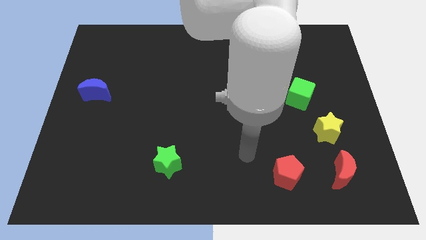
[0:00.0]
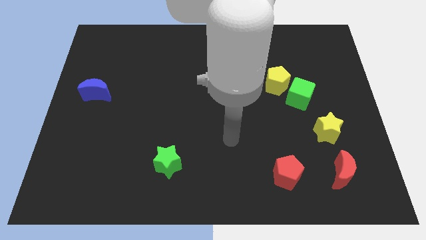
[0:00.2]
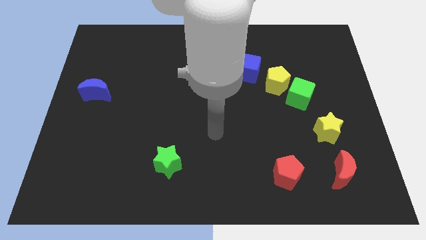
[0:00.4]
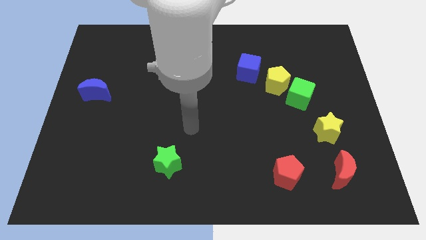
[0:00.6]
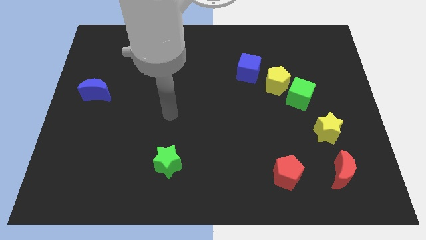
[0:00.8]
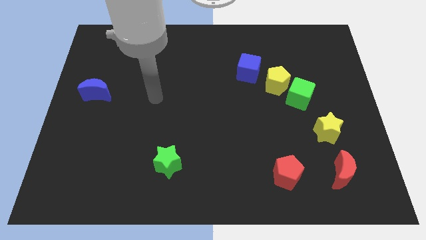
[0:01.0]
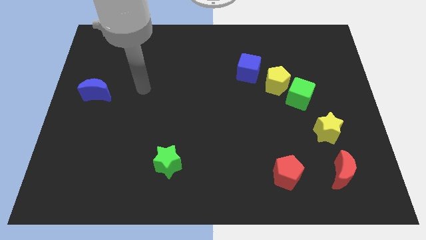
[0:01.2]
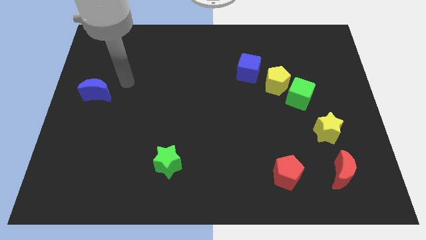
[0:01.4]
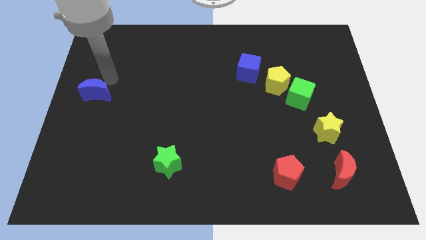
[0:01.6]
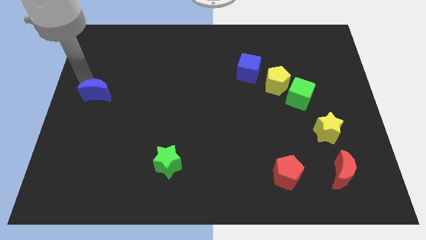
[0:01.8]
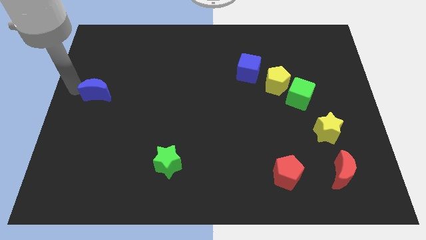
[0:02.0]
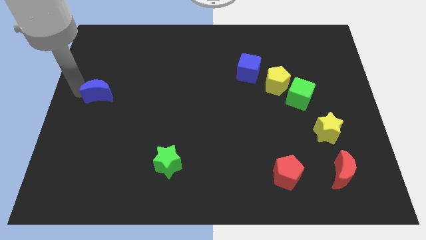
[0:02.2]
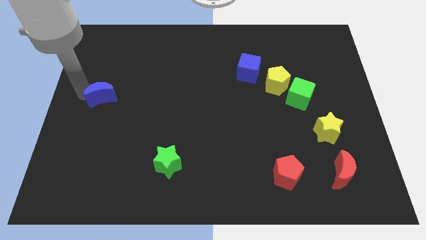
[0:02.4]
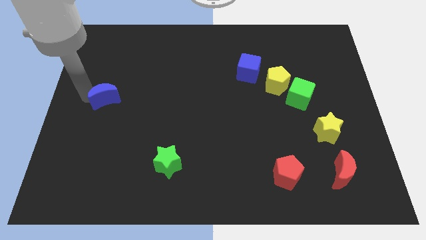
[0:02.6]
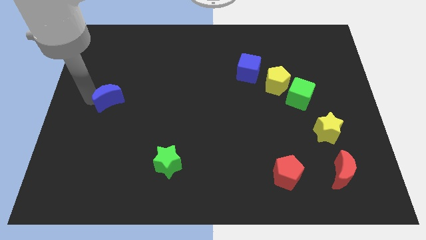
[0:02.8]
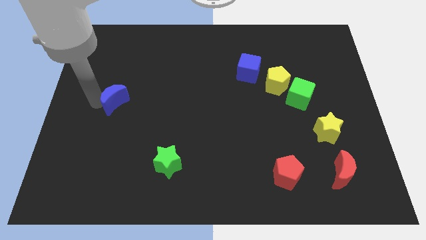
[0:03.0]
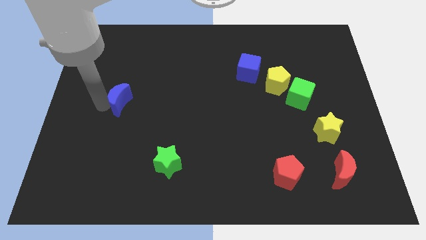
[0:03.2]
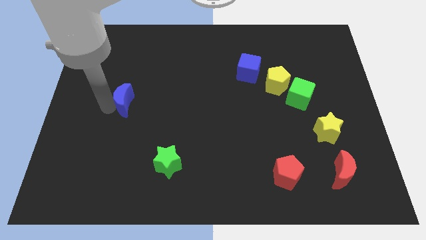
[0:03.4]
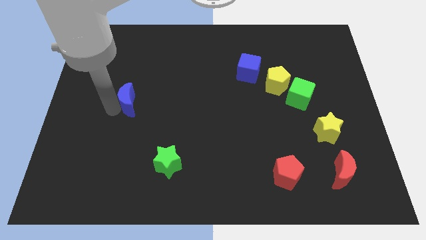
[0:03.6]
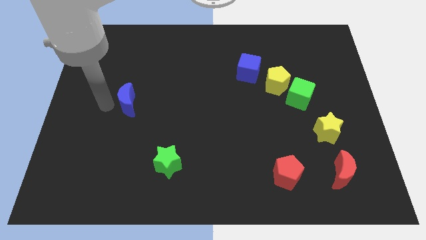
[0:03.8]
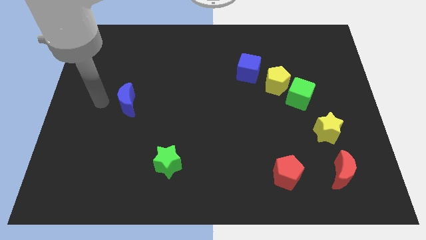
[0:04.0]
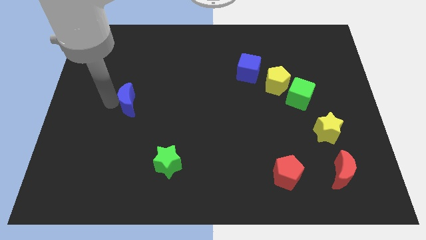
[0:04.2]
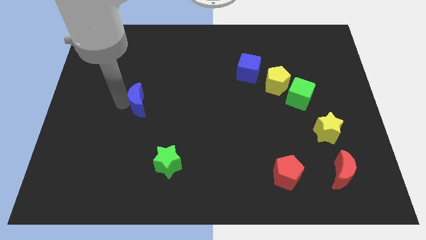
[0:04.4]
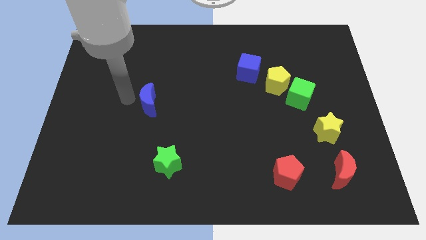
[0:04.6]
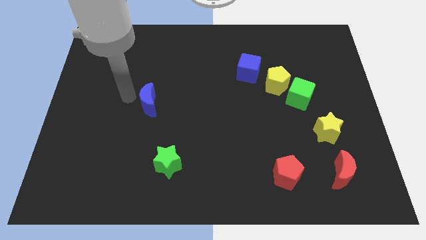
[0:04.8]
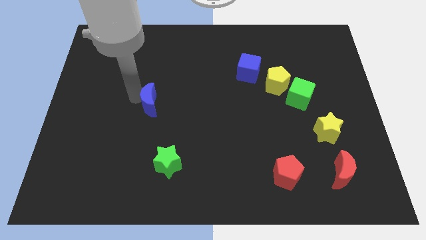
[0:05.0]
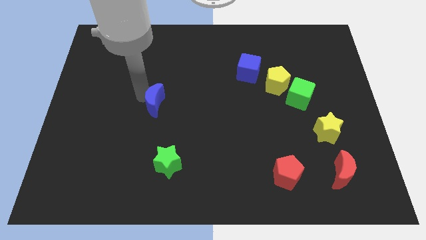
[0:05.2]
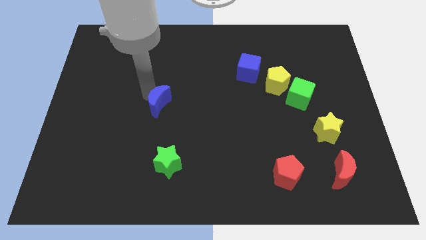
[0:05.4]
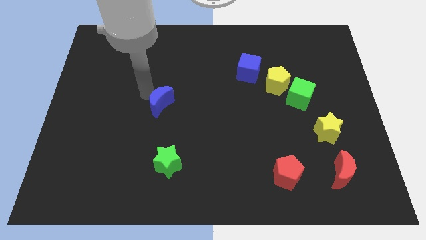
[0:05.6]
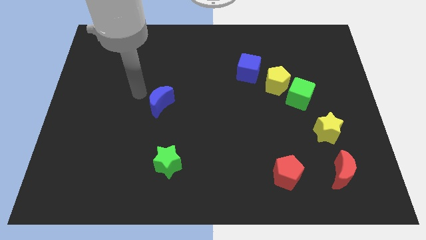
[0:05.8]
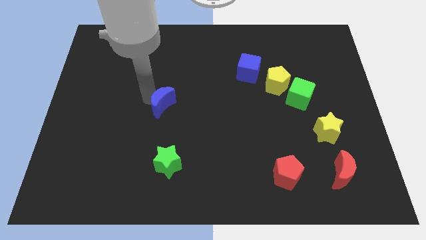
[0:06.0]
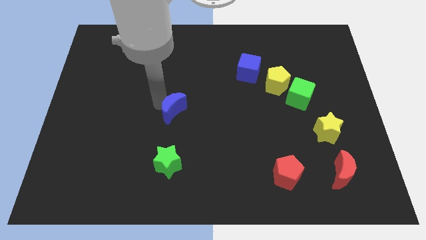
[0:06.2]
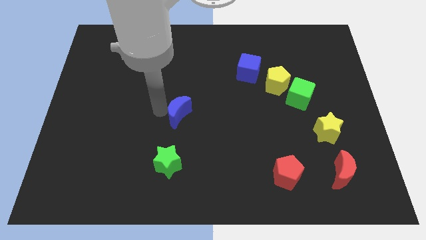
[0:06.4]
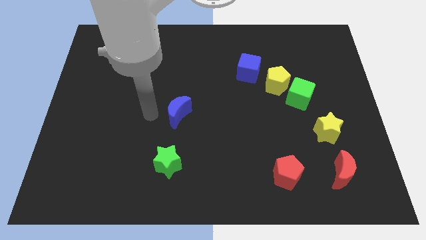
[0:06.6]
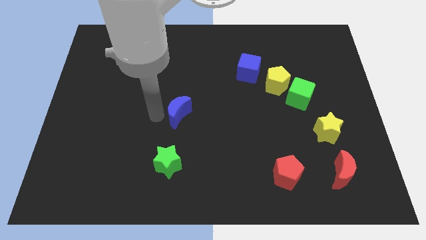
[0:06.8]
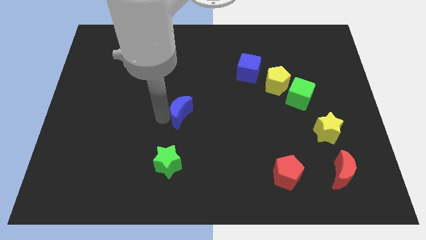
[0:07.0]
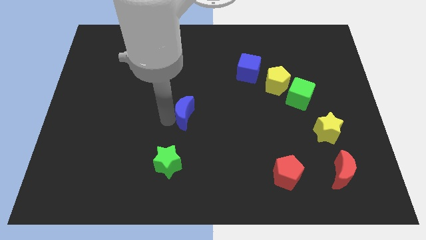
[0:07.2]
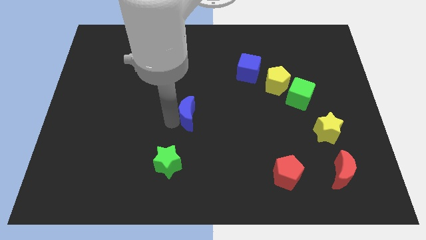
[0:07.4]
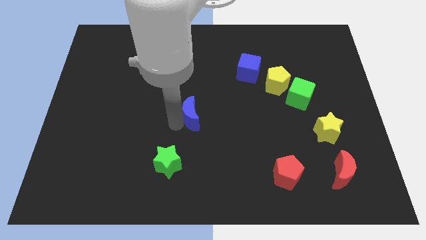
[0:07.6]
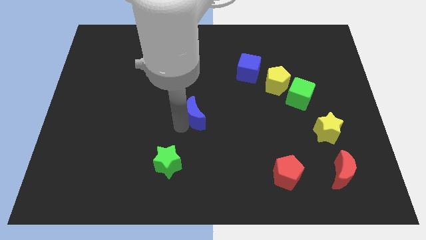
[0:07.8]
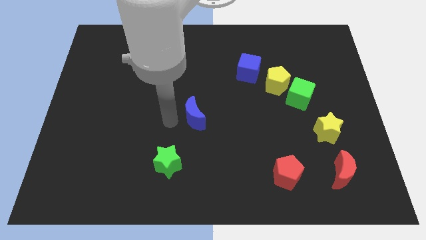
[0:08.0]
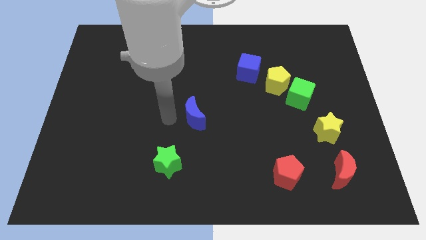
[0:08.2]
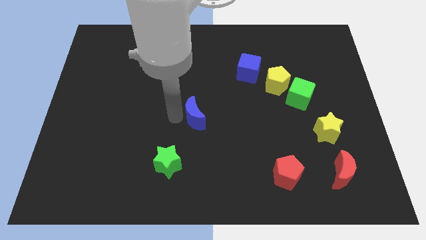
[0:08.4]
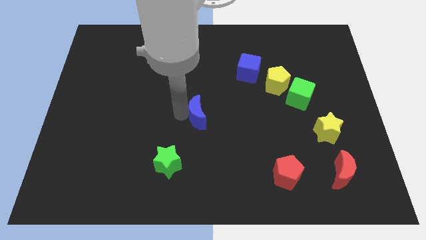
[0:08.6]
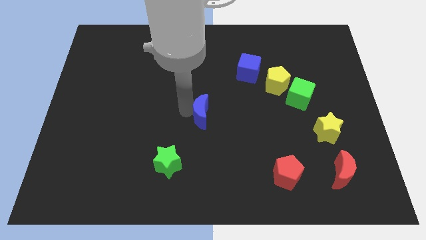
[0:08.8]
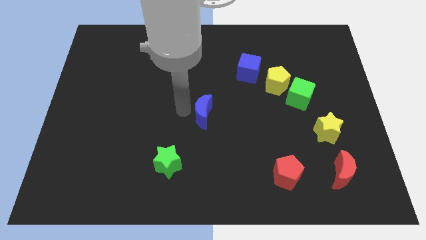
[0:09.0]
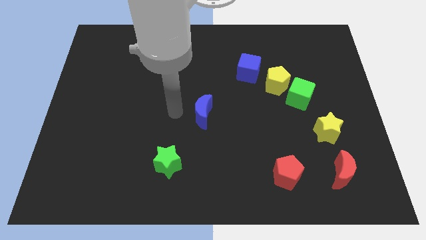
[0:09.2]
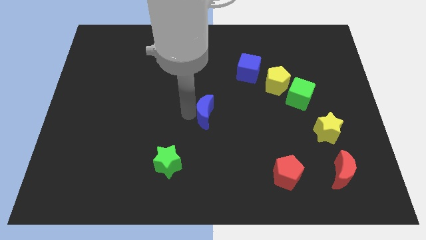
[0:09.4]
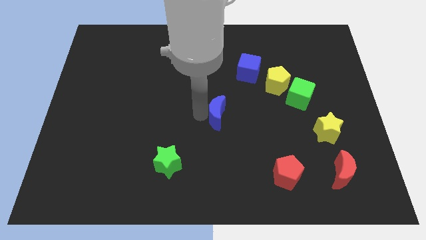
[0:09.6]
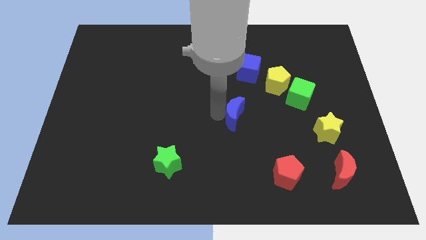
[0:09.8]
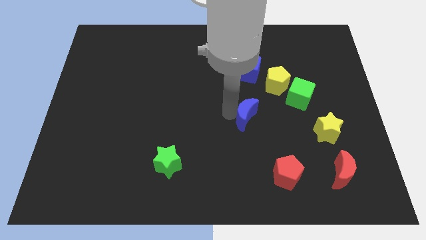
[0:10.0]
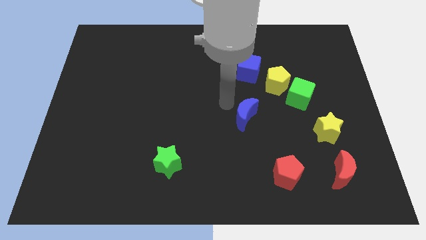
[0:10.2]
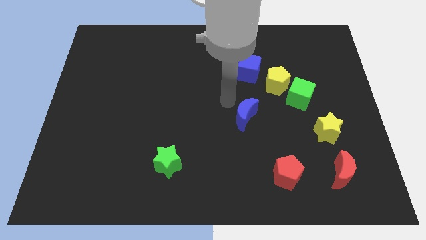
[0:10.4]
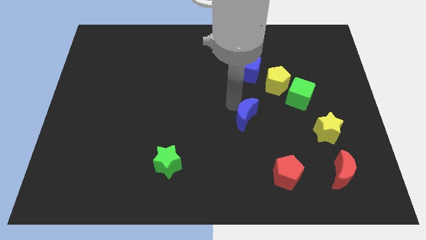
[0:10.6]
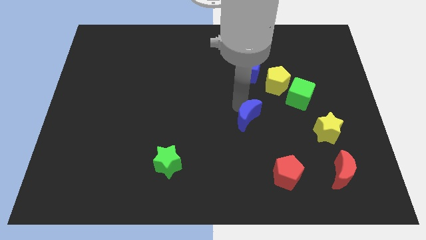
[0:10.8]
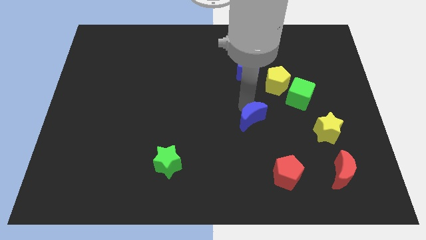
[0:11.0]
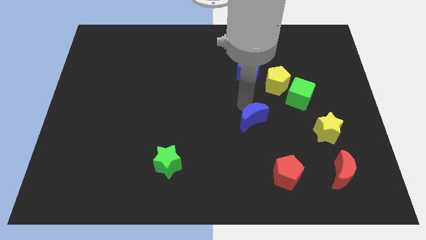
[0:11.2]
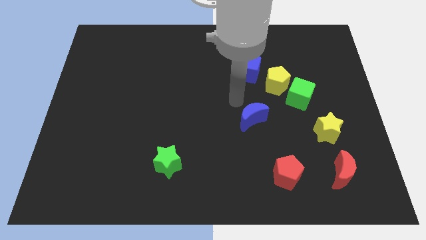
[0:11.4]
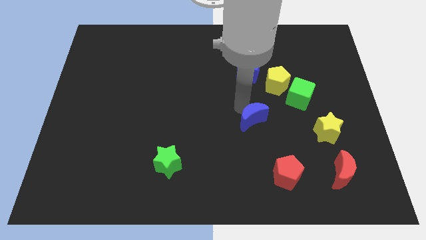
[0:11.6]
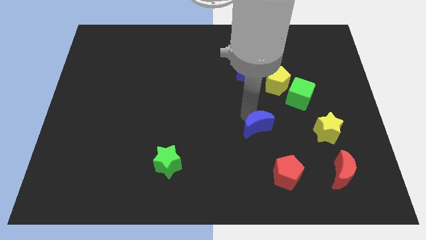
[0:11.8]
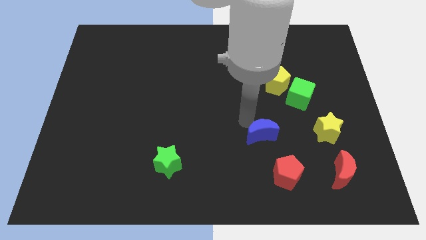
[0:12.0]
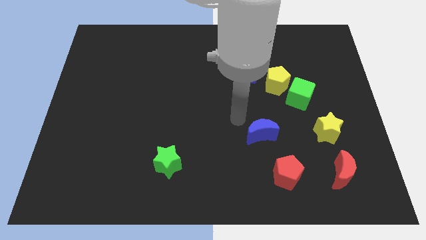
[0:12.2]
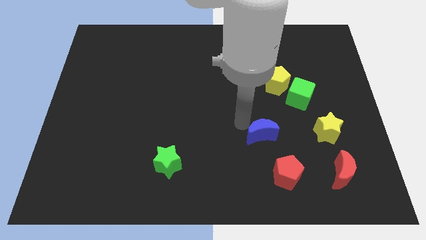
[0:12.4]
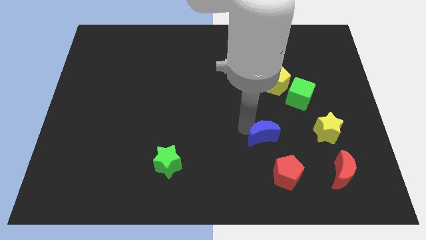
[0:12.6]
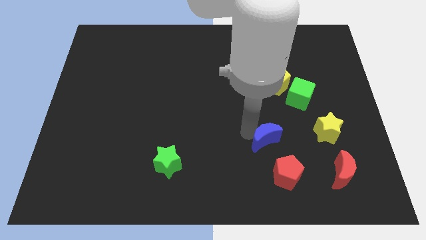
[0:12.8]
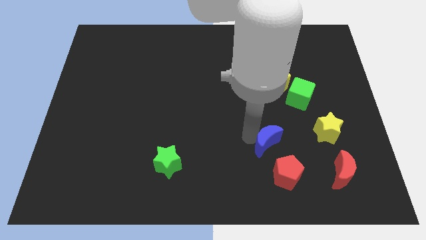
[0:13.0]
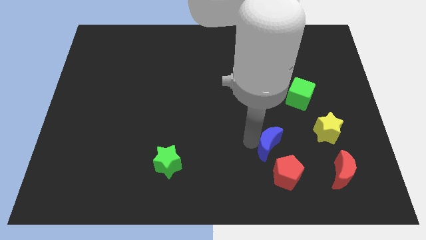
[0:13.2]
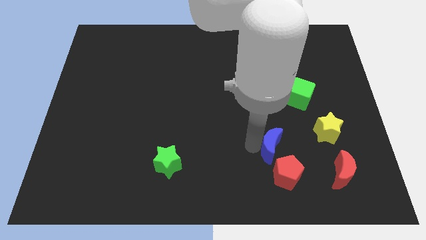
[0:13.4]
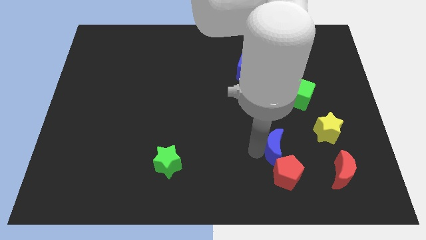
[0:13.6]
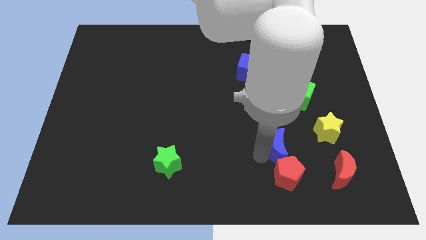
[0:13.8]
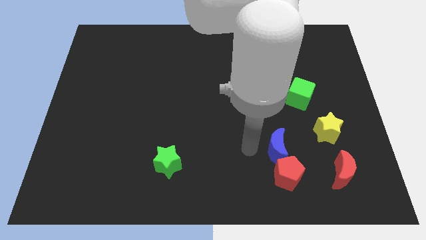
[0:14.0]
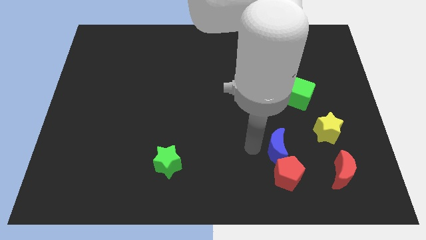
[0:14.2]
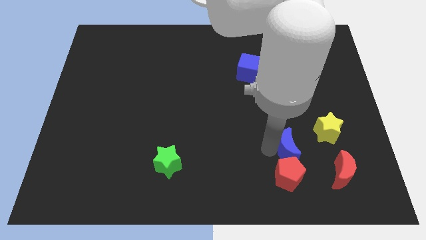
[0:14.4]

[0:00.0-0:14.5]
slide the blue moon diagonally up and to the right of the red pentagon
